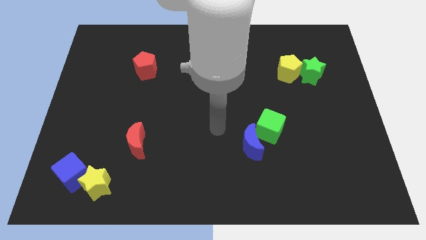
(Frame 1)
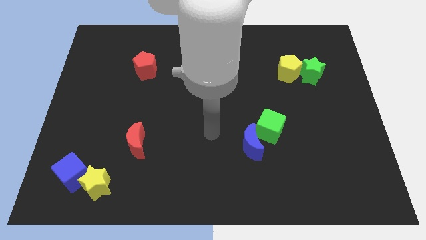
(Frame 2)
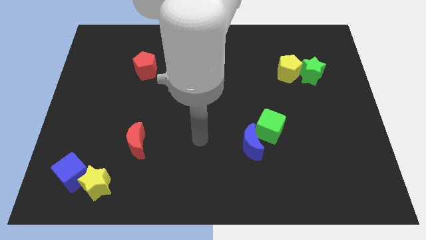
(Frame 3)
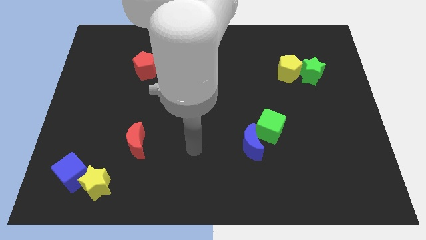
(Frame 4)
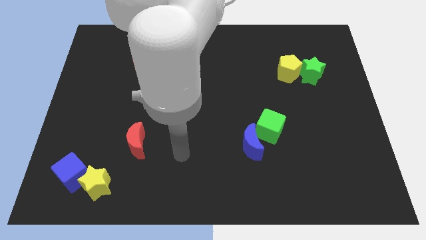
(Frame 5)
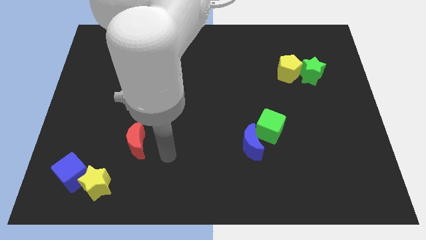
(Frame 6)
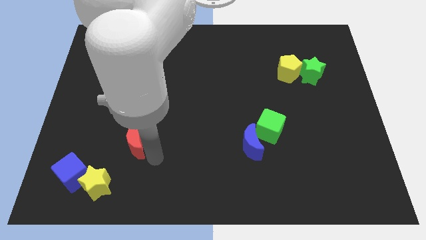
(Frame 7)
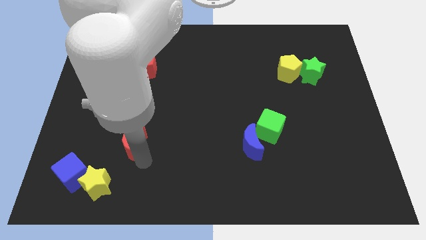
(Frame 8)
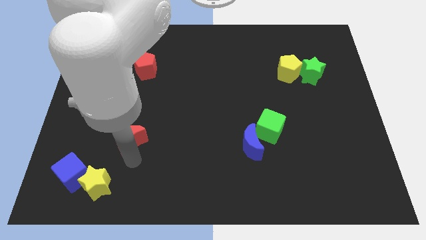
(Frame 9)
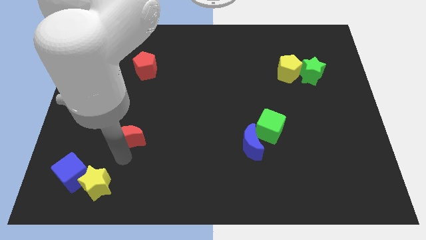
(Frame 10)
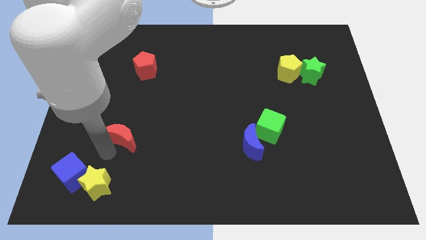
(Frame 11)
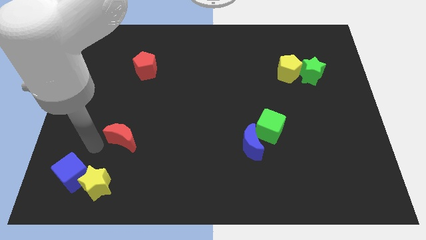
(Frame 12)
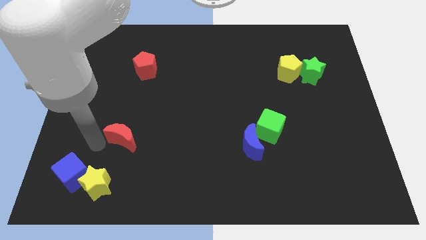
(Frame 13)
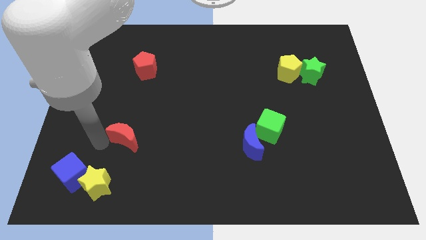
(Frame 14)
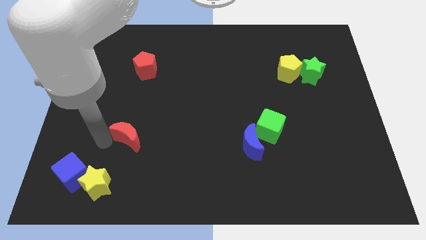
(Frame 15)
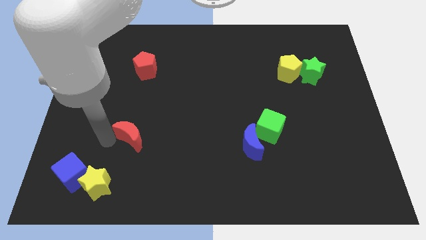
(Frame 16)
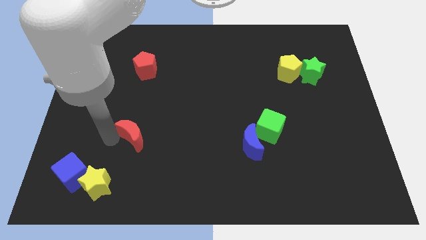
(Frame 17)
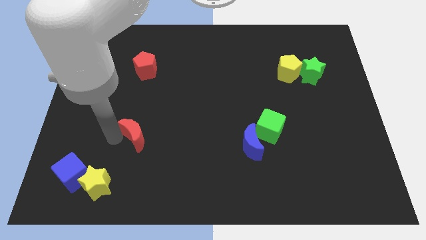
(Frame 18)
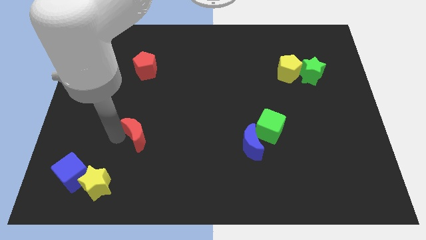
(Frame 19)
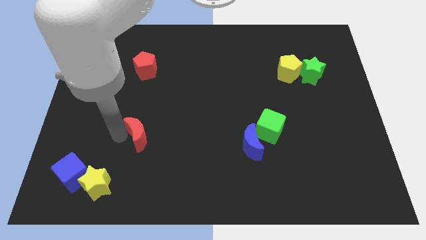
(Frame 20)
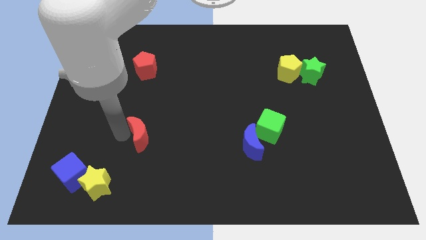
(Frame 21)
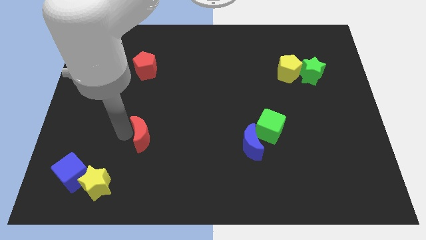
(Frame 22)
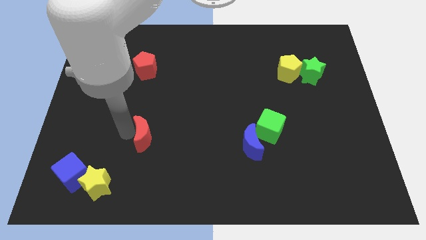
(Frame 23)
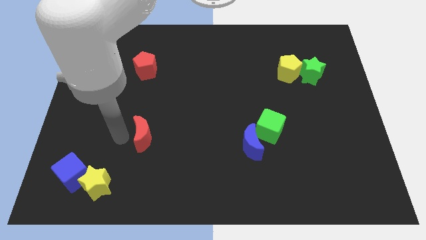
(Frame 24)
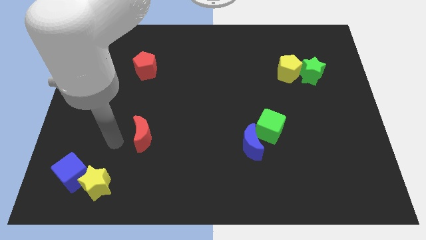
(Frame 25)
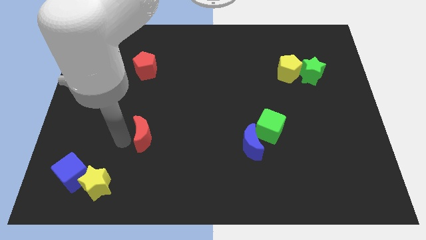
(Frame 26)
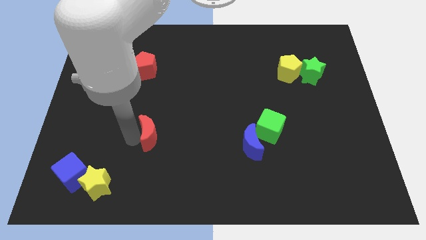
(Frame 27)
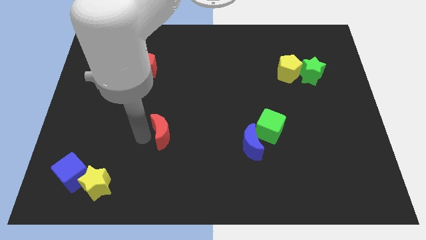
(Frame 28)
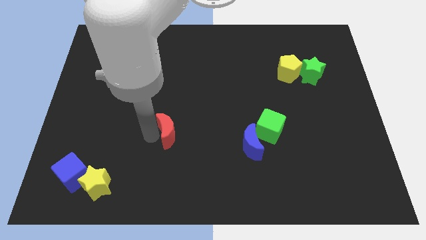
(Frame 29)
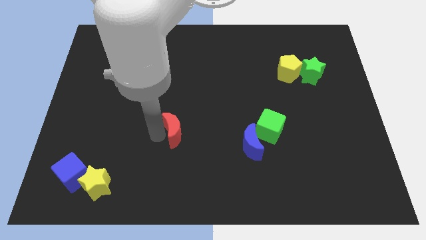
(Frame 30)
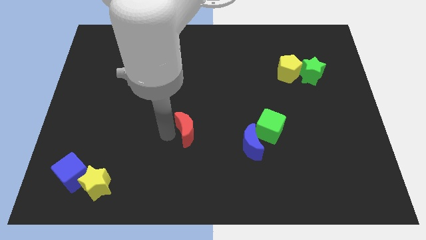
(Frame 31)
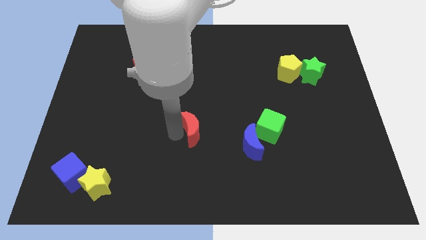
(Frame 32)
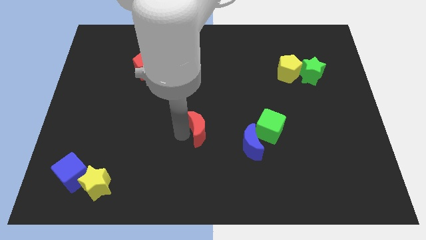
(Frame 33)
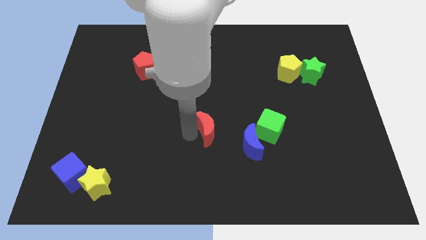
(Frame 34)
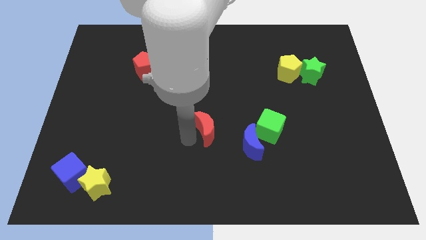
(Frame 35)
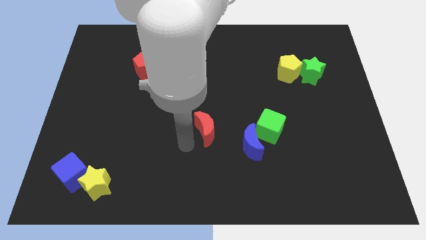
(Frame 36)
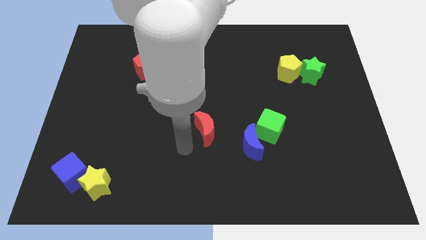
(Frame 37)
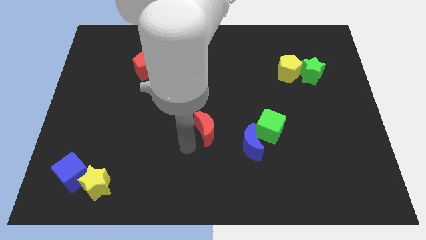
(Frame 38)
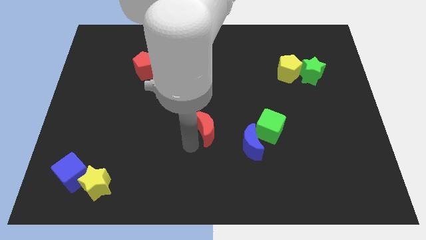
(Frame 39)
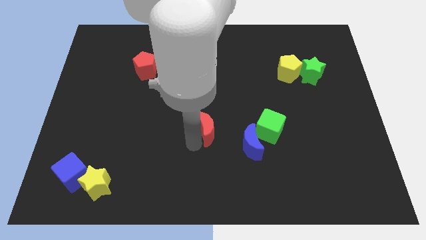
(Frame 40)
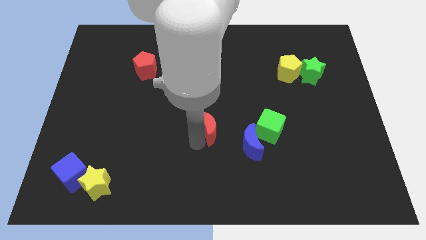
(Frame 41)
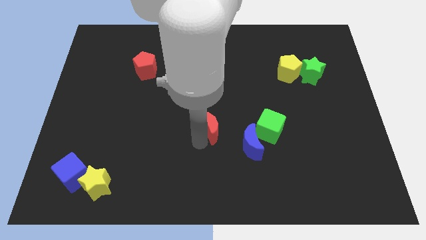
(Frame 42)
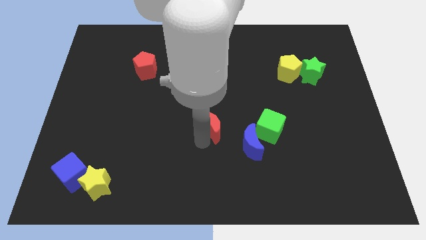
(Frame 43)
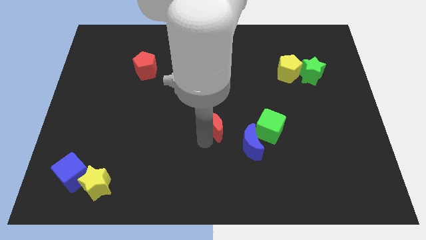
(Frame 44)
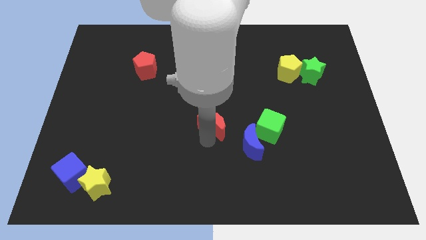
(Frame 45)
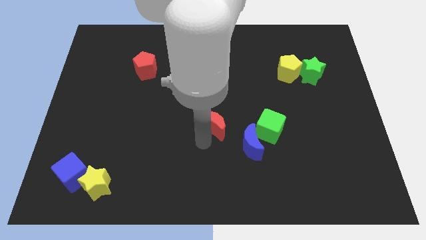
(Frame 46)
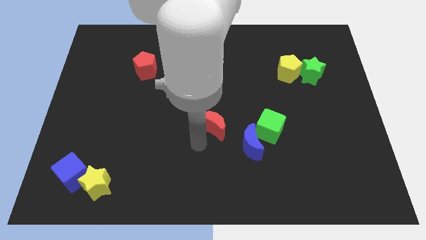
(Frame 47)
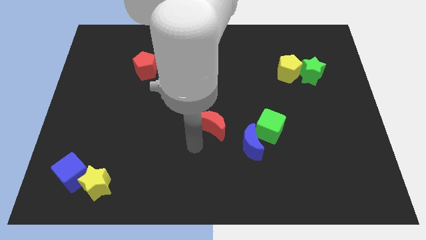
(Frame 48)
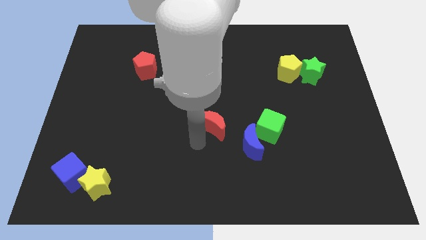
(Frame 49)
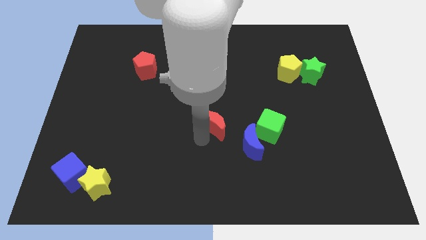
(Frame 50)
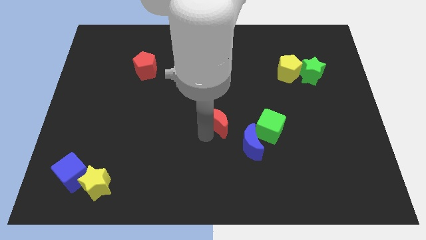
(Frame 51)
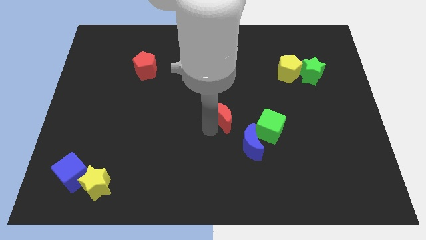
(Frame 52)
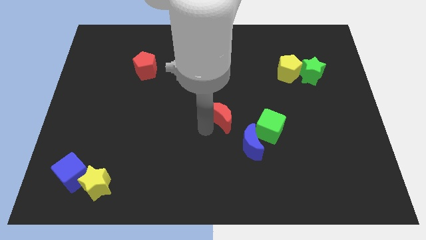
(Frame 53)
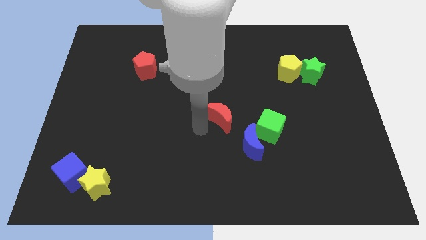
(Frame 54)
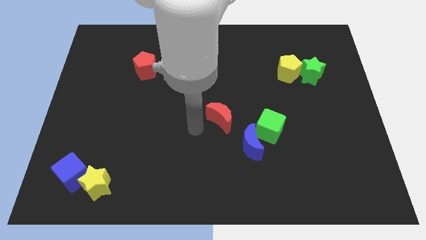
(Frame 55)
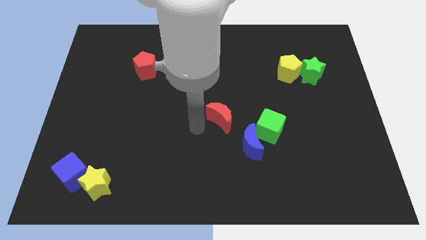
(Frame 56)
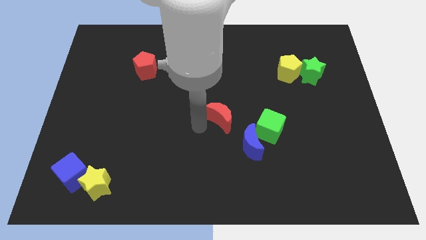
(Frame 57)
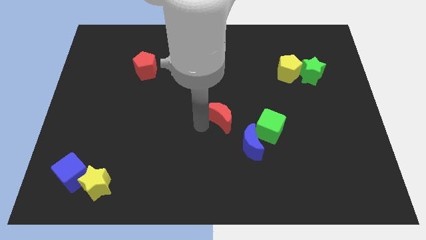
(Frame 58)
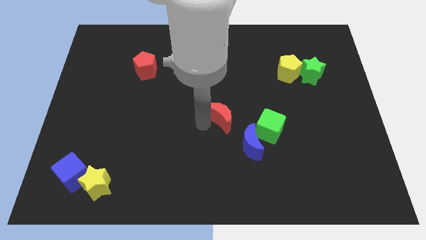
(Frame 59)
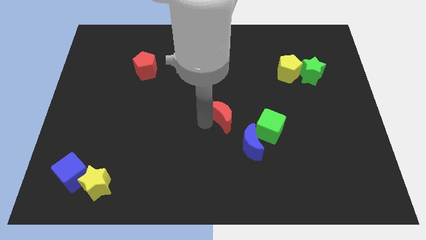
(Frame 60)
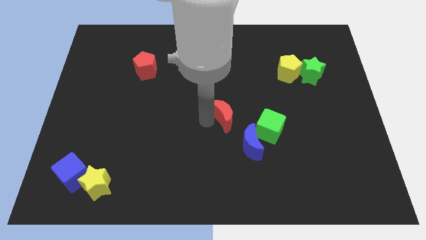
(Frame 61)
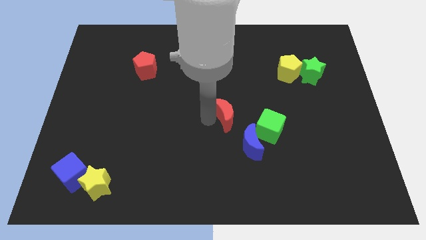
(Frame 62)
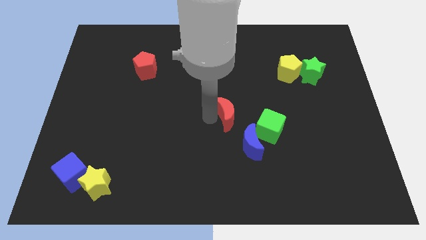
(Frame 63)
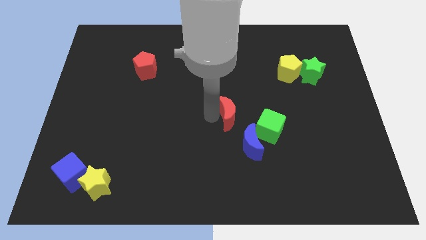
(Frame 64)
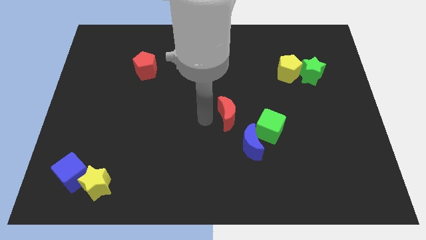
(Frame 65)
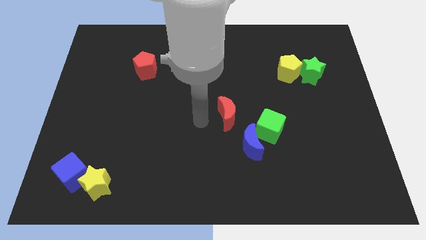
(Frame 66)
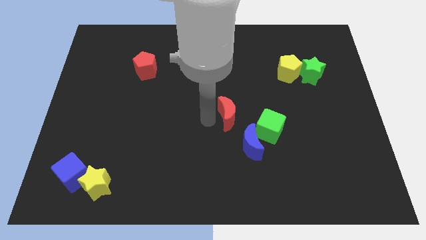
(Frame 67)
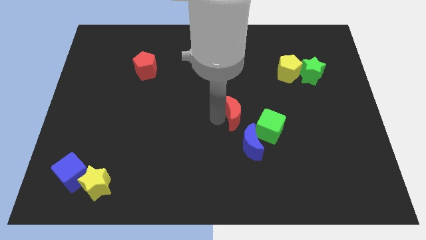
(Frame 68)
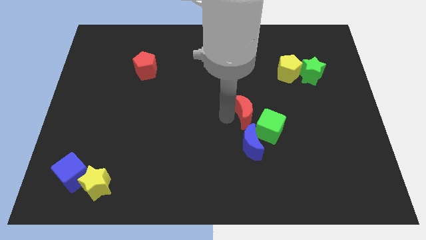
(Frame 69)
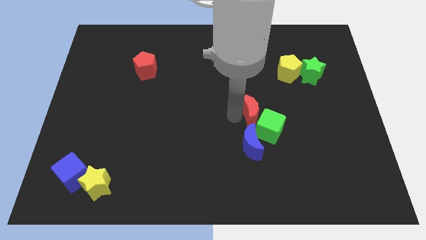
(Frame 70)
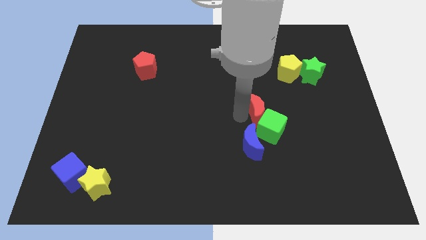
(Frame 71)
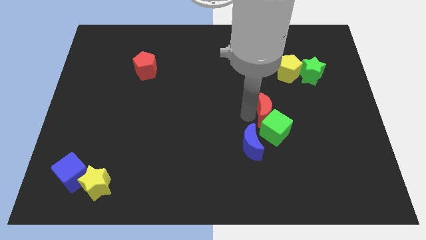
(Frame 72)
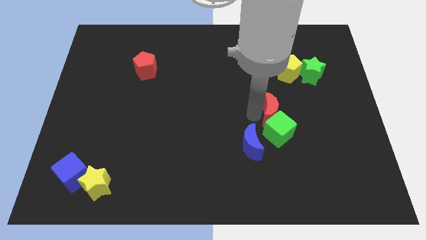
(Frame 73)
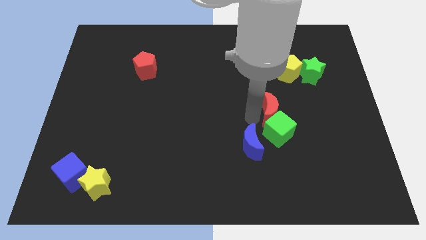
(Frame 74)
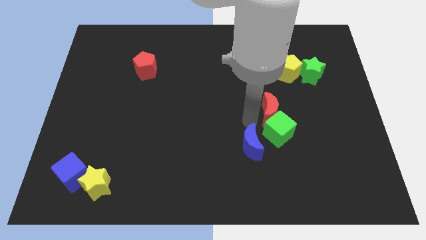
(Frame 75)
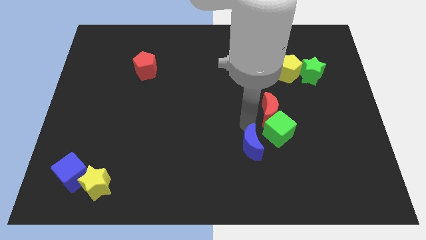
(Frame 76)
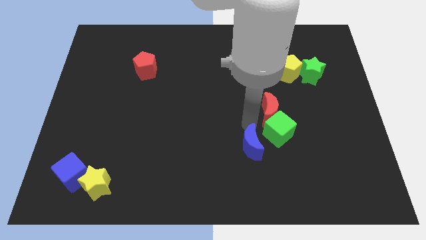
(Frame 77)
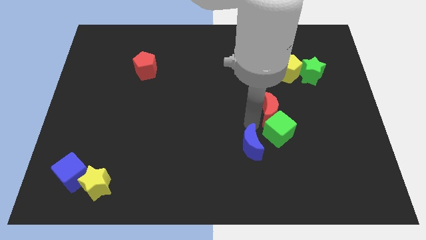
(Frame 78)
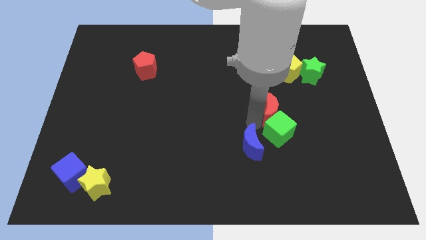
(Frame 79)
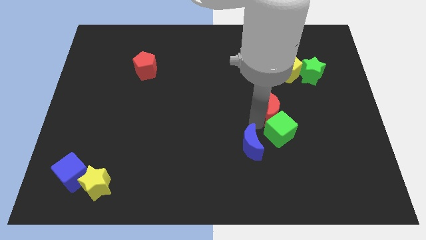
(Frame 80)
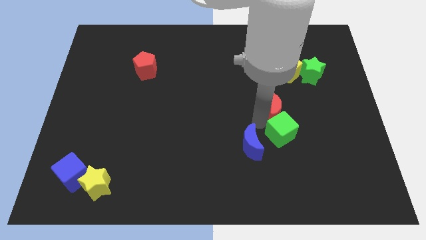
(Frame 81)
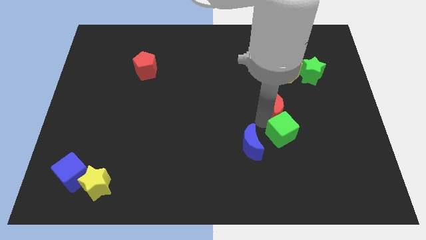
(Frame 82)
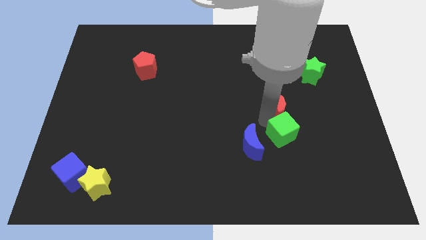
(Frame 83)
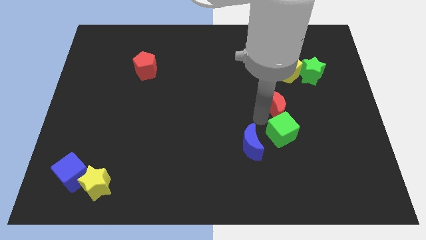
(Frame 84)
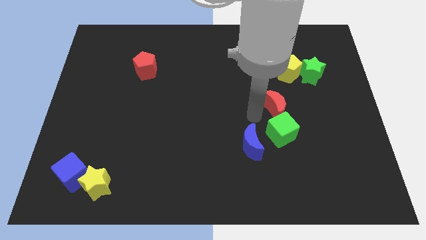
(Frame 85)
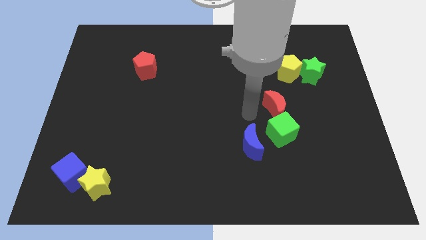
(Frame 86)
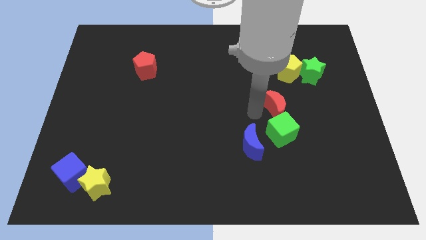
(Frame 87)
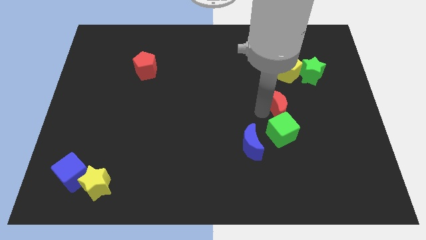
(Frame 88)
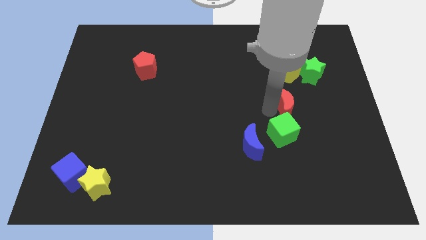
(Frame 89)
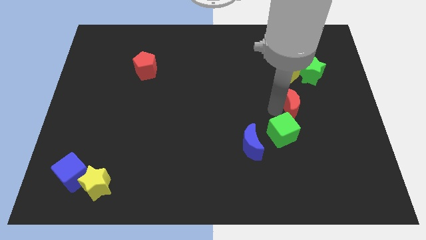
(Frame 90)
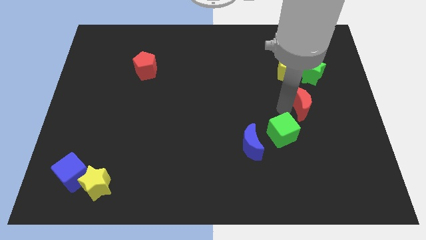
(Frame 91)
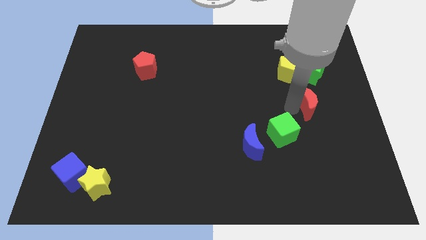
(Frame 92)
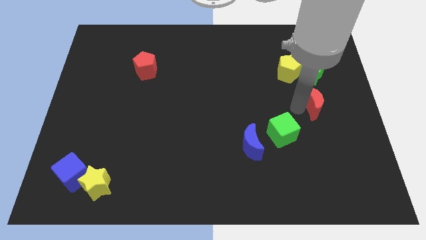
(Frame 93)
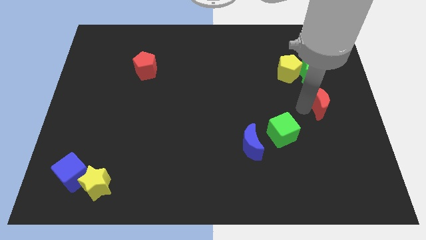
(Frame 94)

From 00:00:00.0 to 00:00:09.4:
move the red moon to the center right
